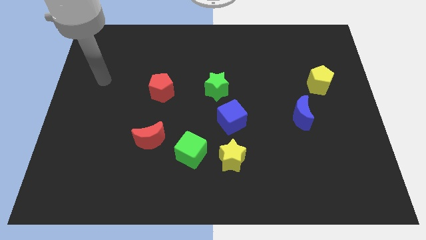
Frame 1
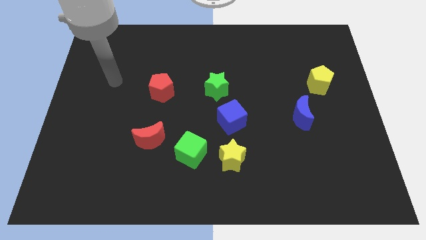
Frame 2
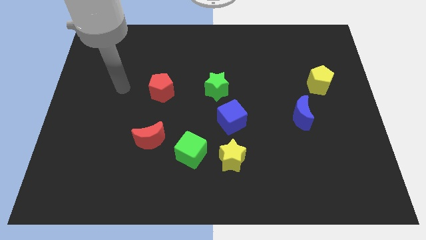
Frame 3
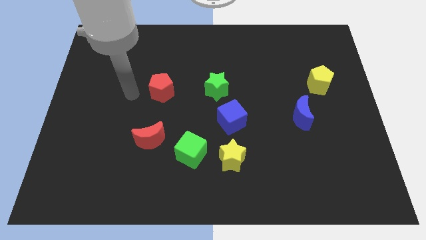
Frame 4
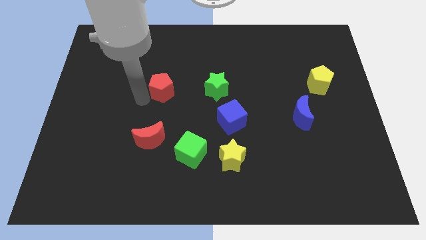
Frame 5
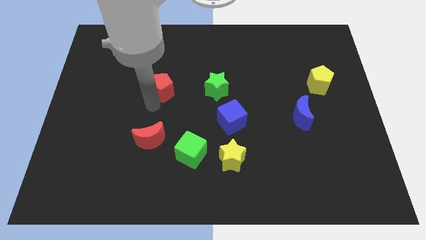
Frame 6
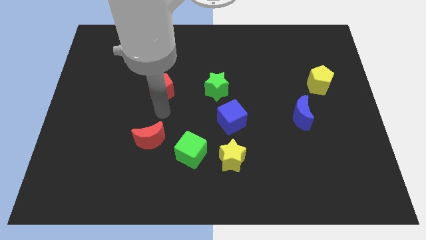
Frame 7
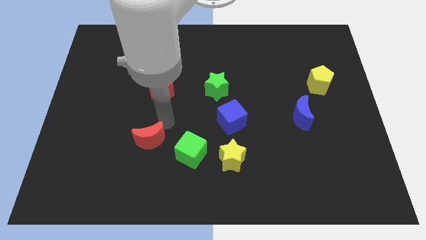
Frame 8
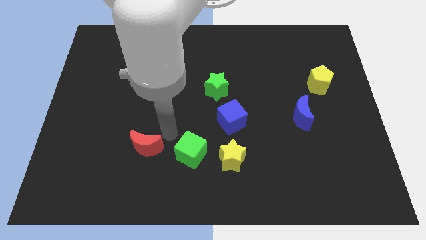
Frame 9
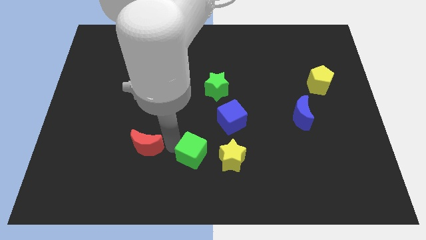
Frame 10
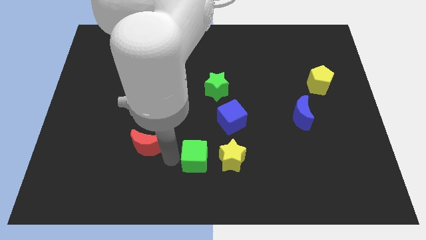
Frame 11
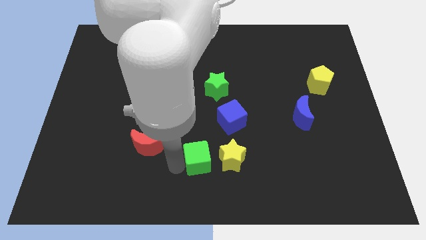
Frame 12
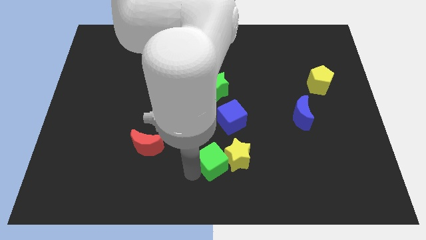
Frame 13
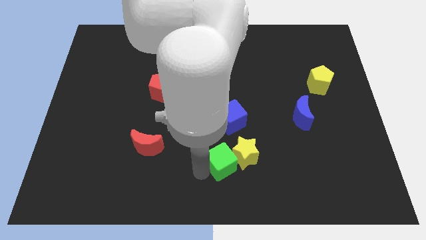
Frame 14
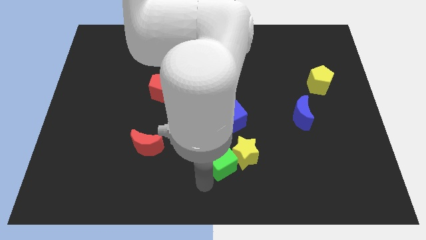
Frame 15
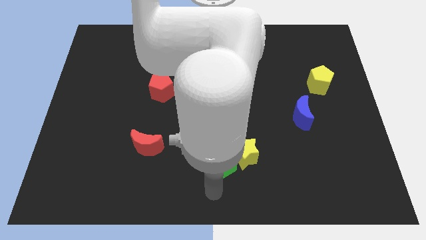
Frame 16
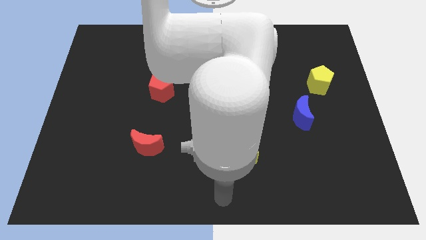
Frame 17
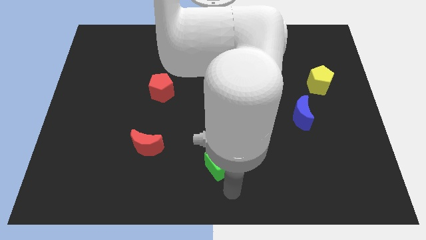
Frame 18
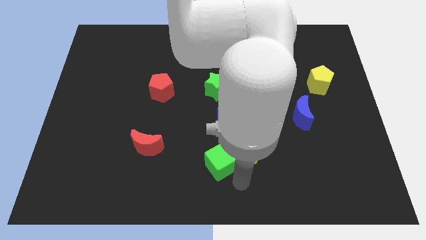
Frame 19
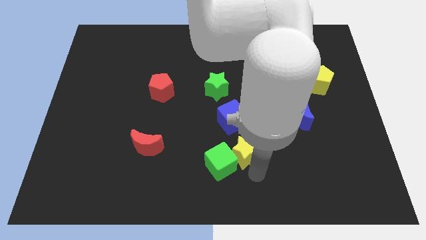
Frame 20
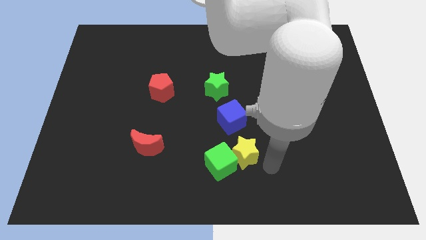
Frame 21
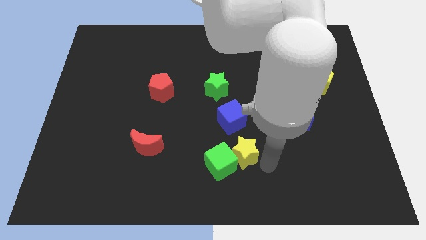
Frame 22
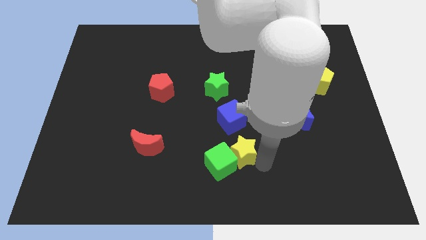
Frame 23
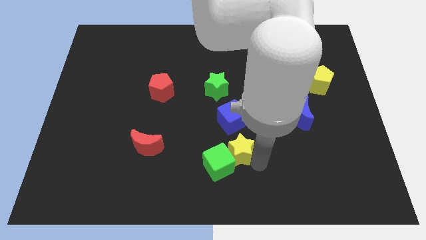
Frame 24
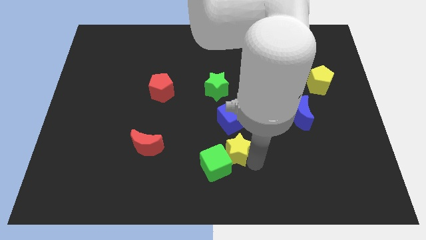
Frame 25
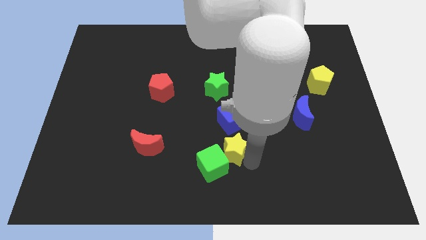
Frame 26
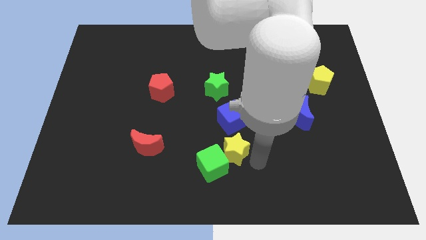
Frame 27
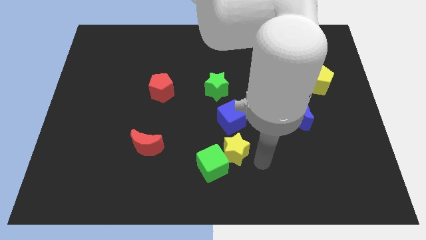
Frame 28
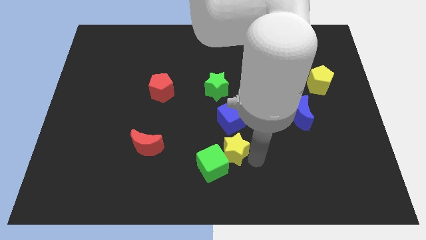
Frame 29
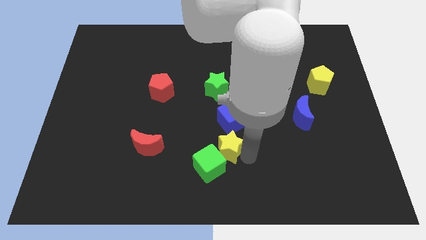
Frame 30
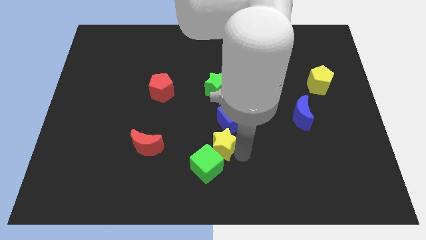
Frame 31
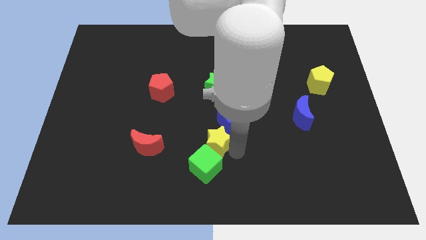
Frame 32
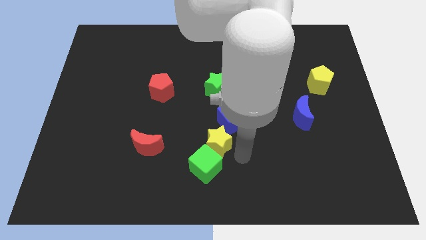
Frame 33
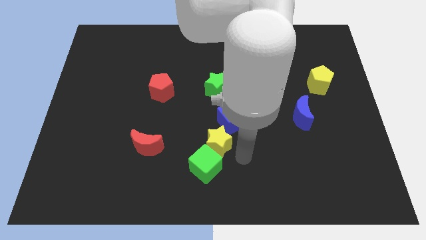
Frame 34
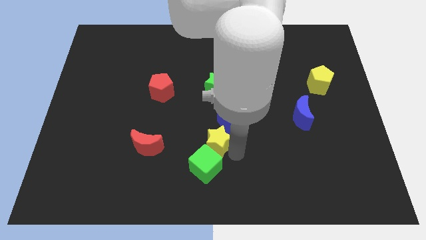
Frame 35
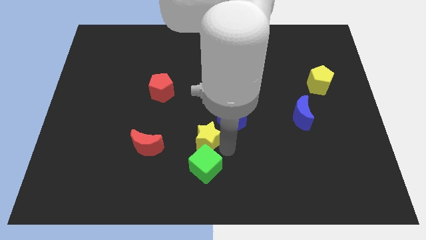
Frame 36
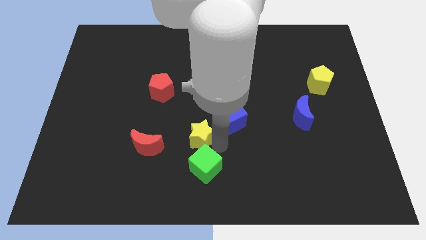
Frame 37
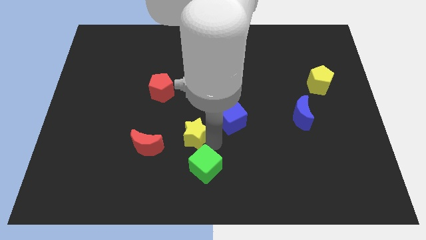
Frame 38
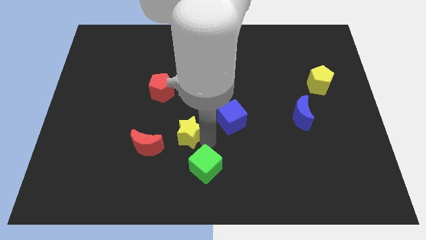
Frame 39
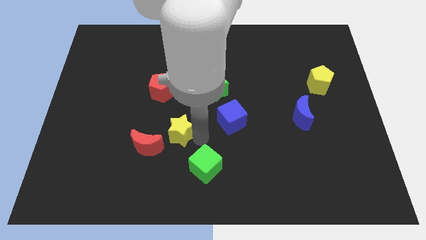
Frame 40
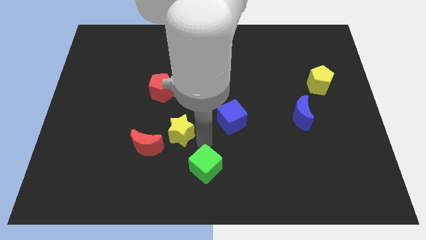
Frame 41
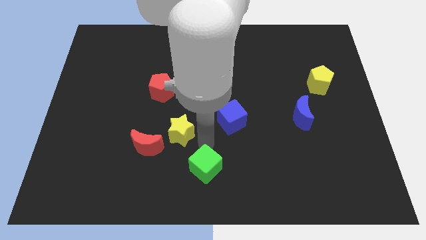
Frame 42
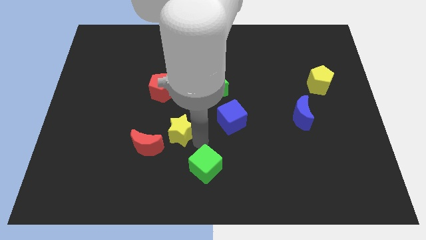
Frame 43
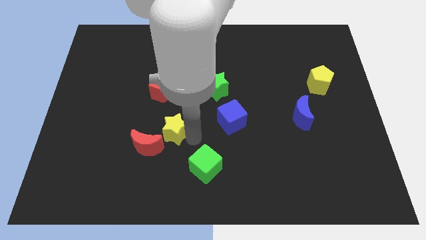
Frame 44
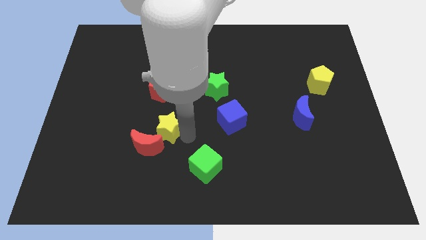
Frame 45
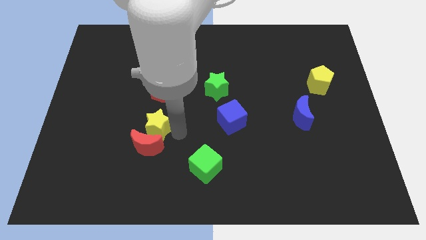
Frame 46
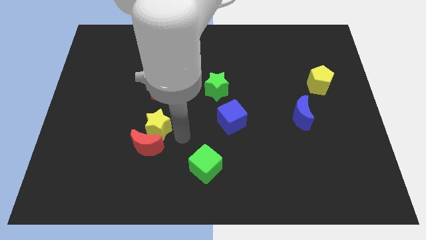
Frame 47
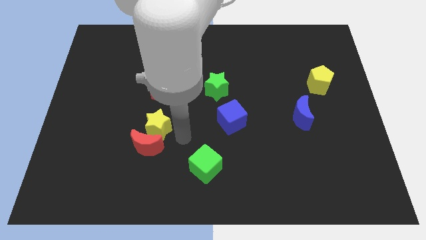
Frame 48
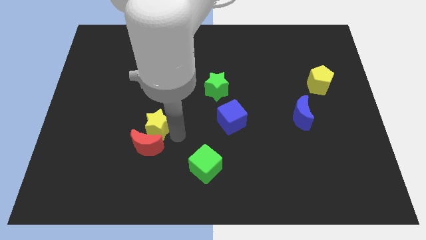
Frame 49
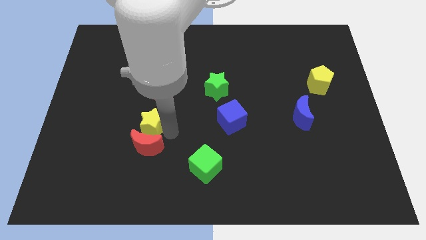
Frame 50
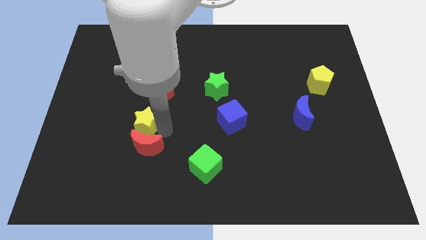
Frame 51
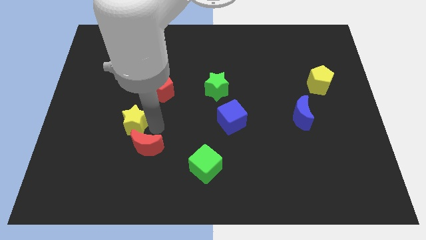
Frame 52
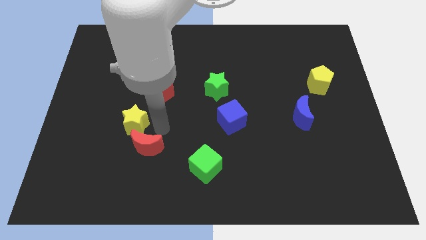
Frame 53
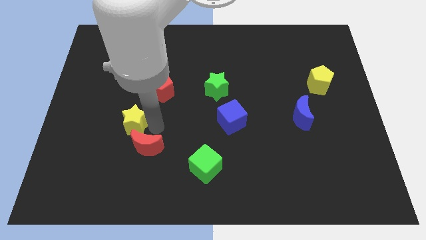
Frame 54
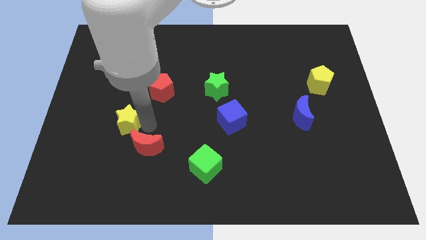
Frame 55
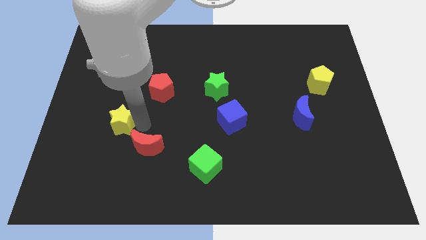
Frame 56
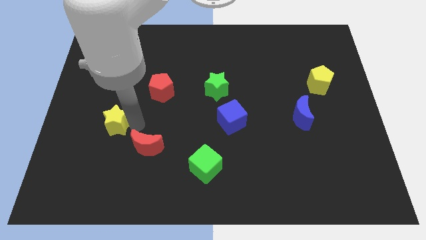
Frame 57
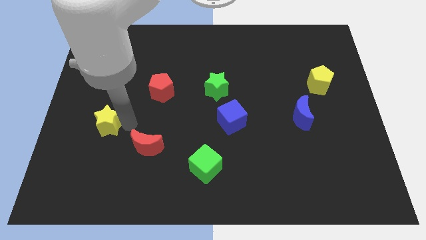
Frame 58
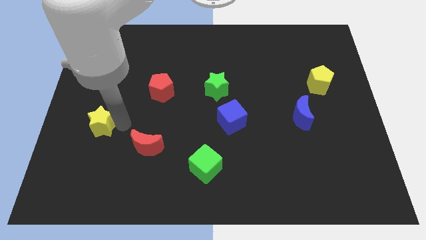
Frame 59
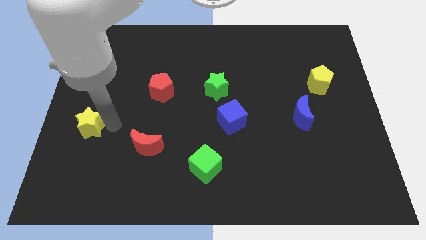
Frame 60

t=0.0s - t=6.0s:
put the yellow star to the left side of the board

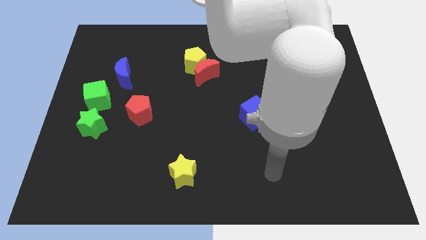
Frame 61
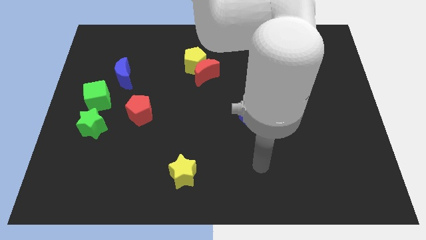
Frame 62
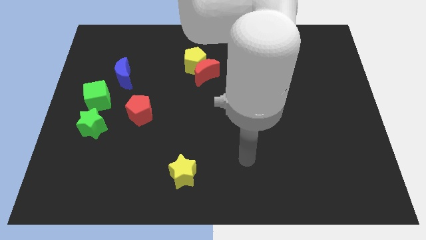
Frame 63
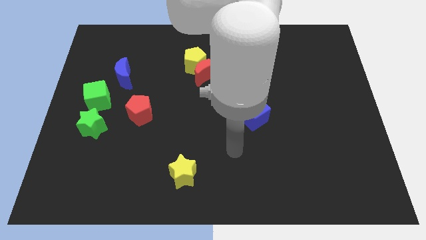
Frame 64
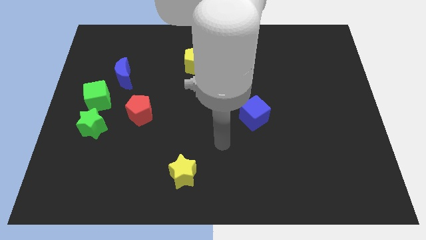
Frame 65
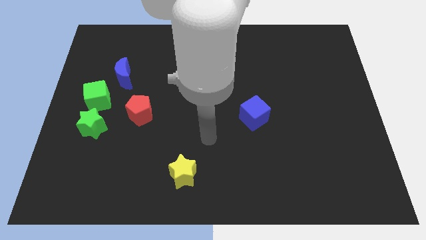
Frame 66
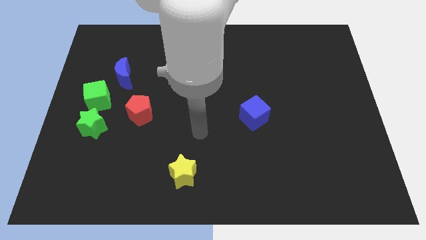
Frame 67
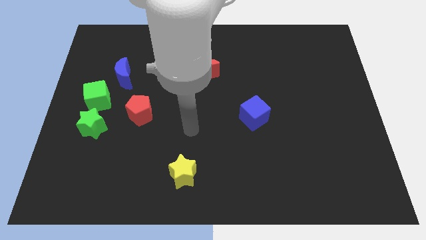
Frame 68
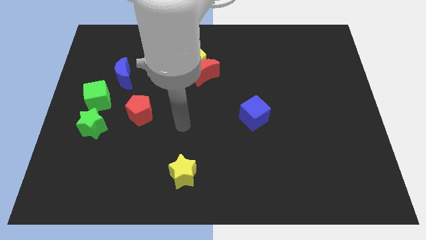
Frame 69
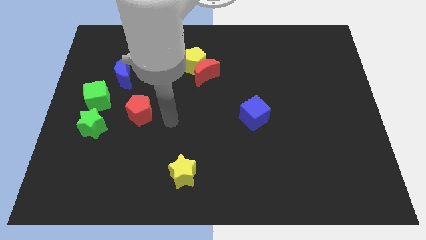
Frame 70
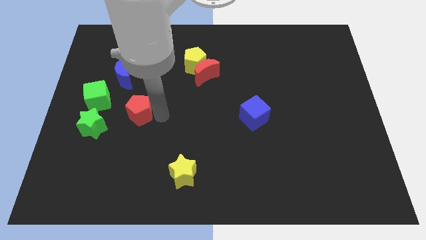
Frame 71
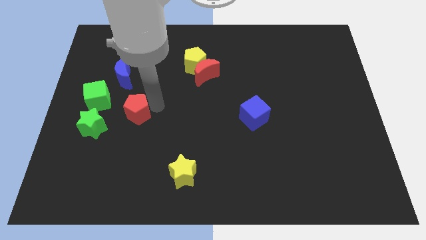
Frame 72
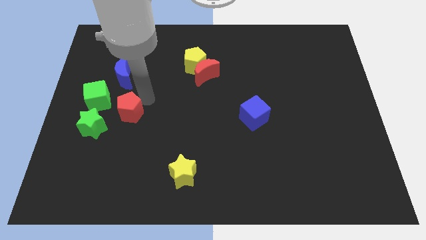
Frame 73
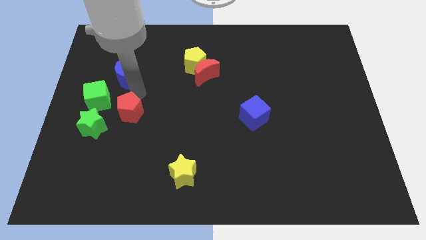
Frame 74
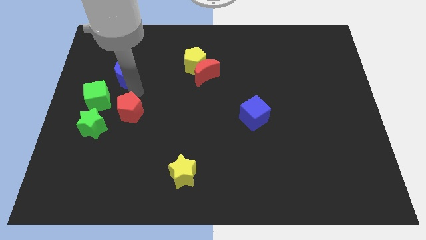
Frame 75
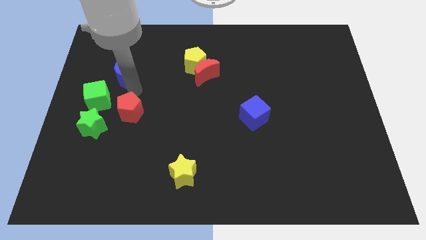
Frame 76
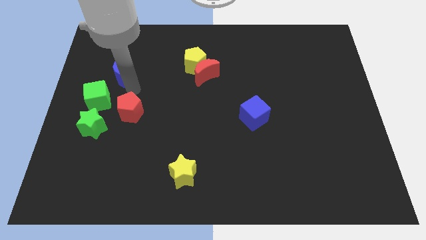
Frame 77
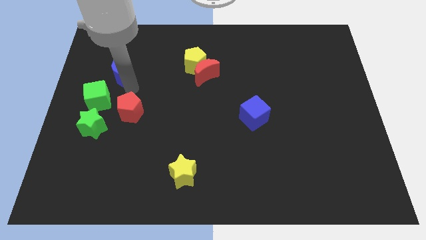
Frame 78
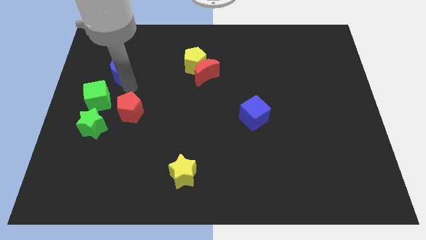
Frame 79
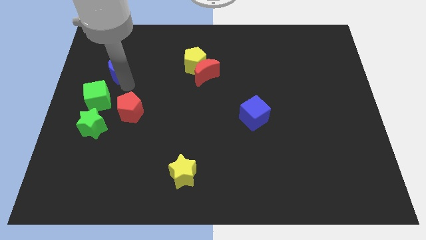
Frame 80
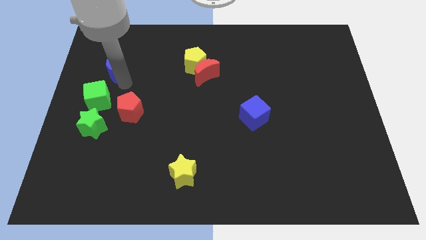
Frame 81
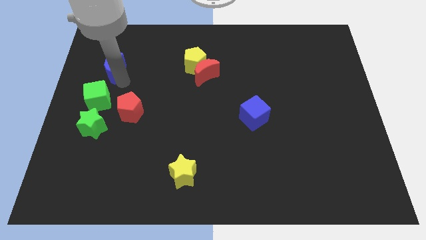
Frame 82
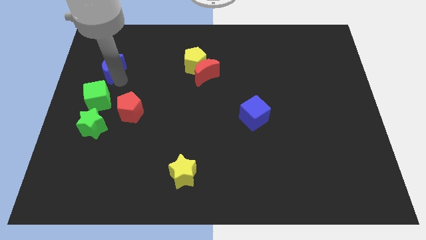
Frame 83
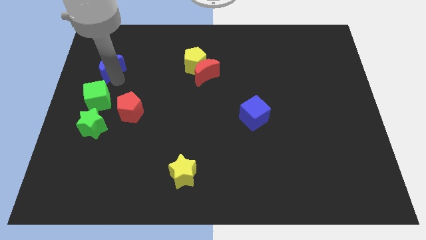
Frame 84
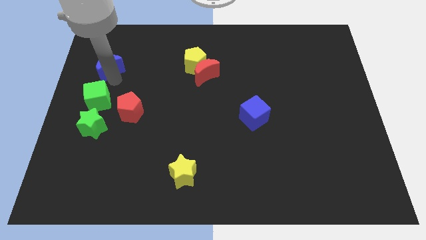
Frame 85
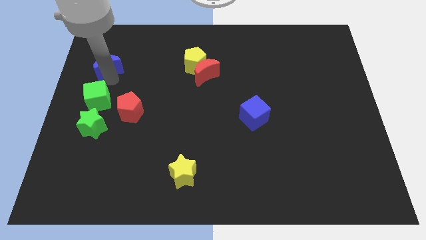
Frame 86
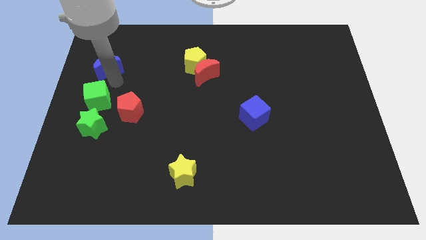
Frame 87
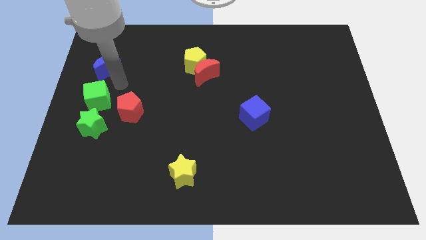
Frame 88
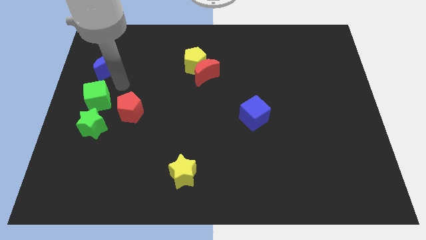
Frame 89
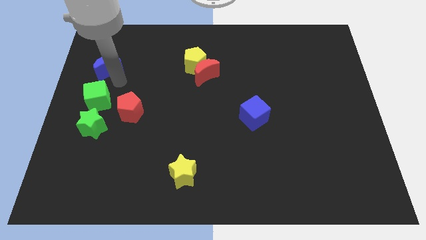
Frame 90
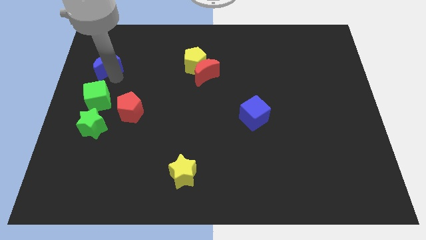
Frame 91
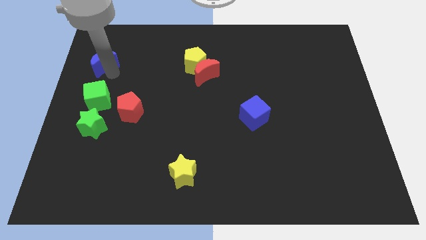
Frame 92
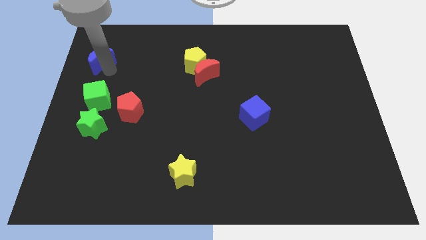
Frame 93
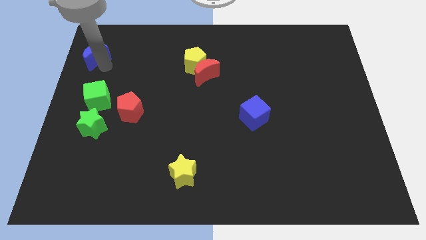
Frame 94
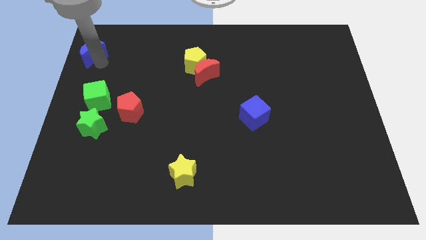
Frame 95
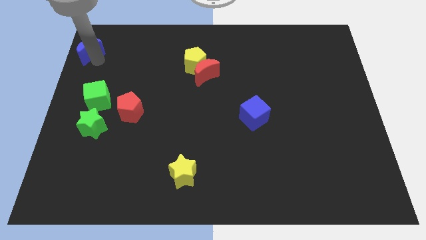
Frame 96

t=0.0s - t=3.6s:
move the blue moon to the upper left corner
